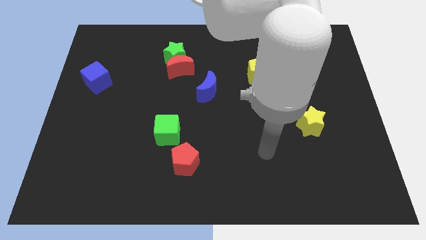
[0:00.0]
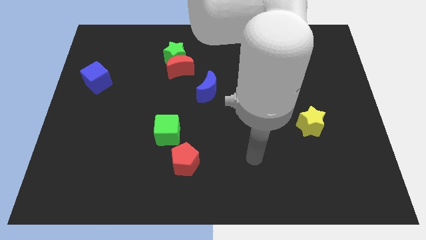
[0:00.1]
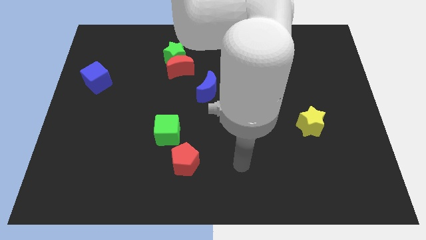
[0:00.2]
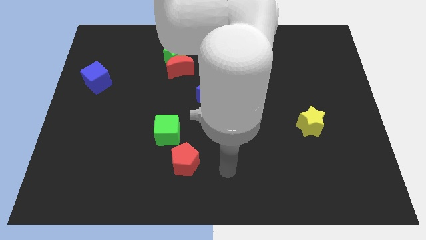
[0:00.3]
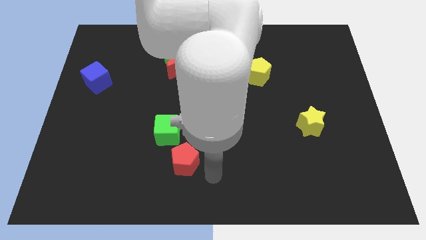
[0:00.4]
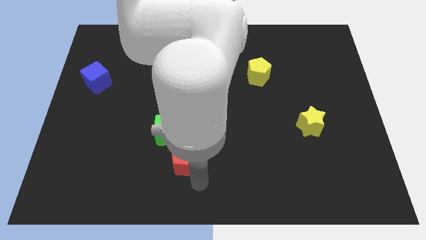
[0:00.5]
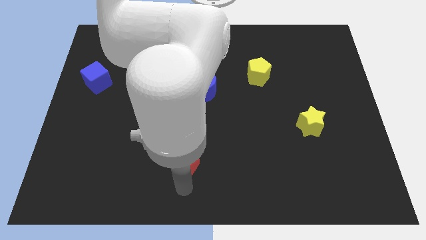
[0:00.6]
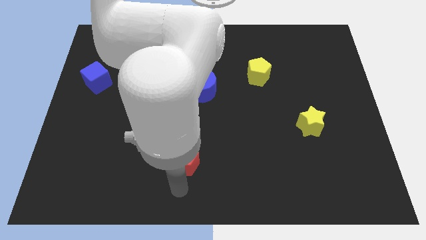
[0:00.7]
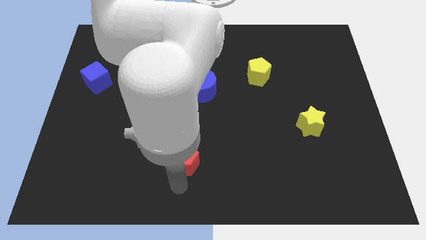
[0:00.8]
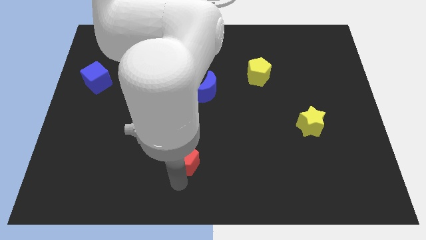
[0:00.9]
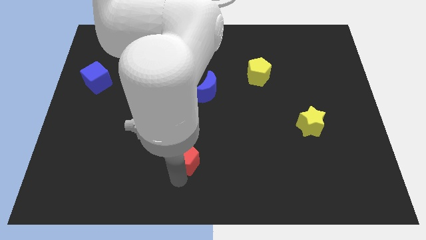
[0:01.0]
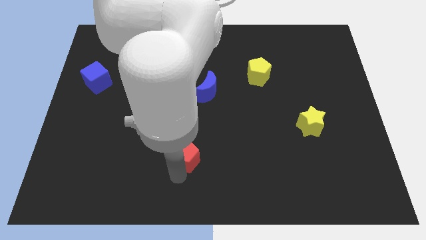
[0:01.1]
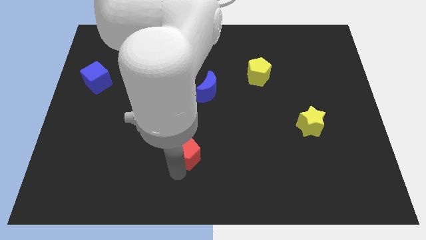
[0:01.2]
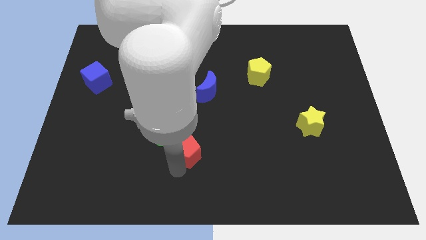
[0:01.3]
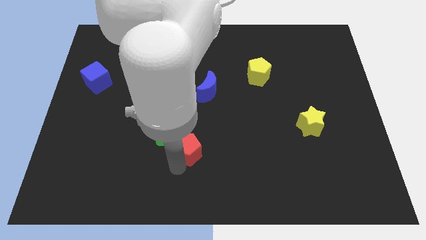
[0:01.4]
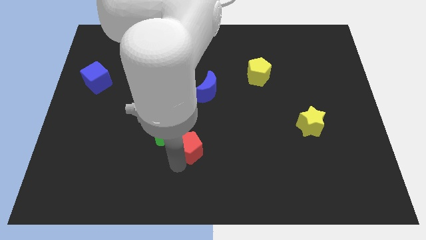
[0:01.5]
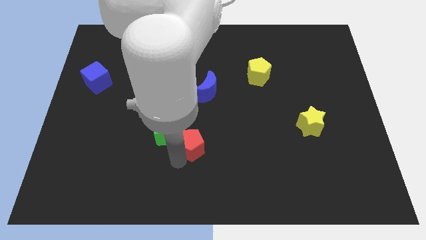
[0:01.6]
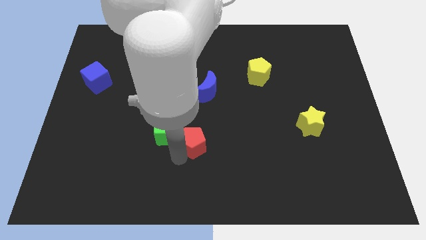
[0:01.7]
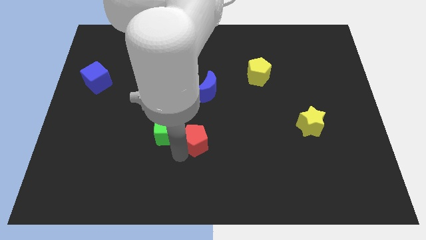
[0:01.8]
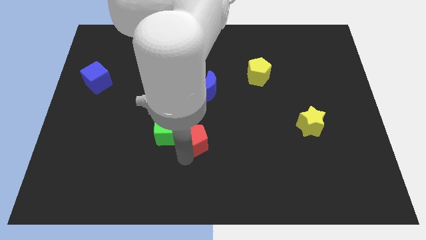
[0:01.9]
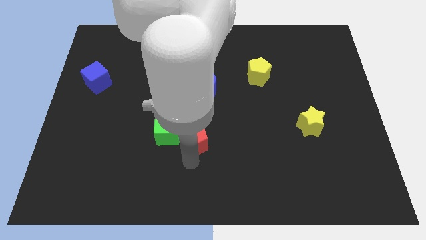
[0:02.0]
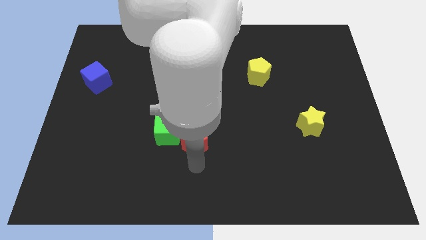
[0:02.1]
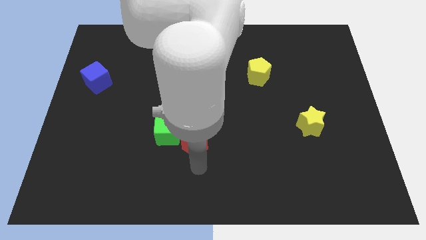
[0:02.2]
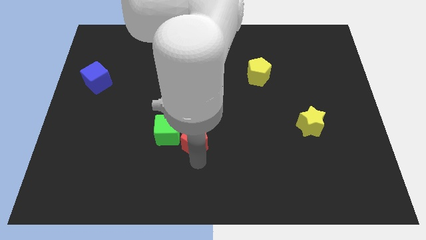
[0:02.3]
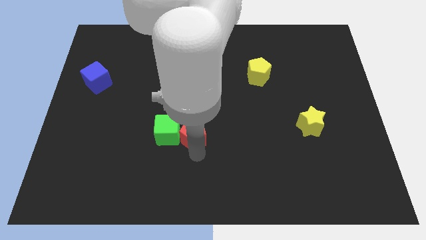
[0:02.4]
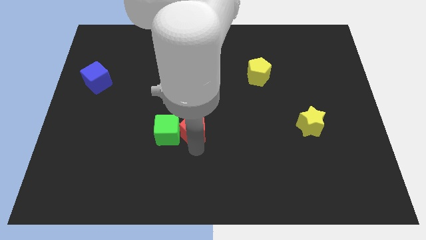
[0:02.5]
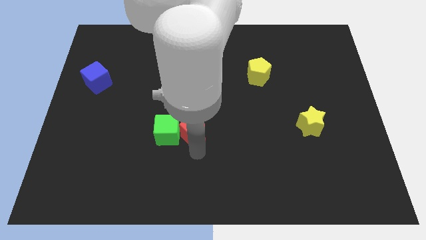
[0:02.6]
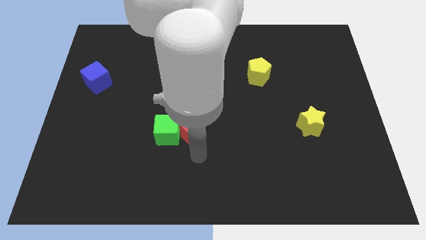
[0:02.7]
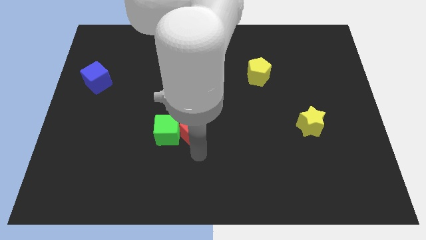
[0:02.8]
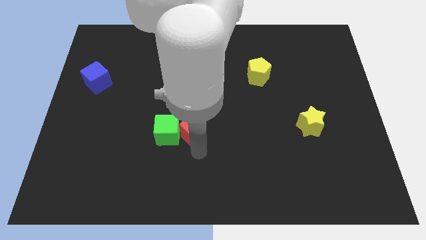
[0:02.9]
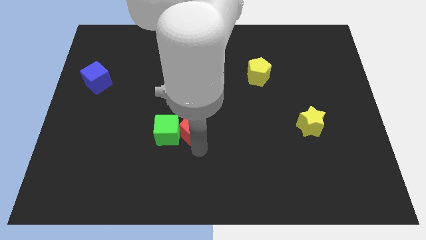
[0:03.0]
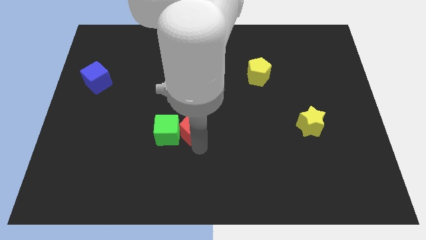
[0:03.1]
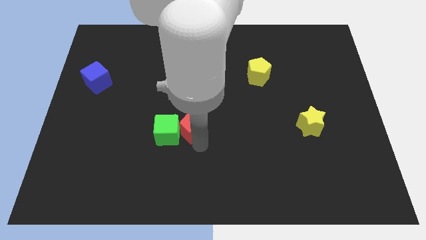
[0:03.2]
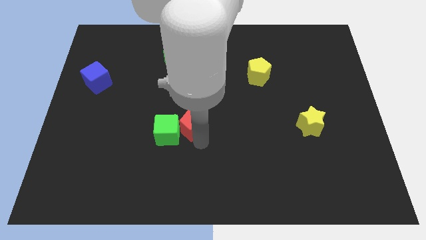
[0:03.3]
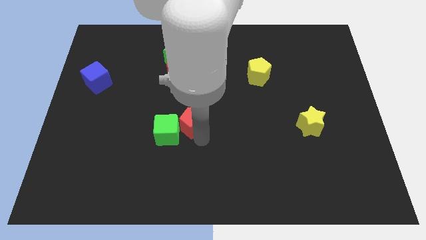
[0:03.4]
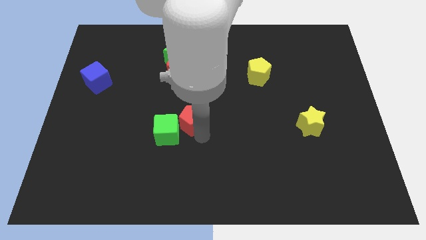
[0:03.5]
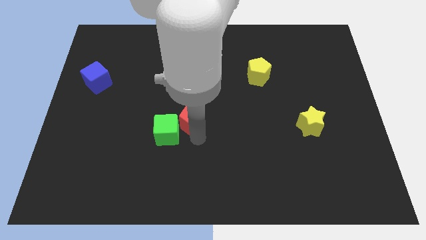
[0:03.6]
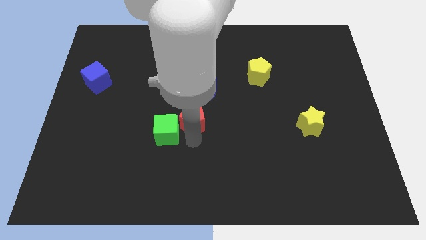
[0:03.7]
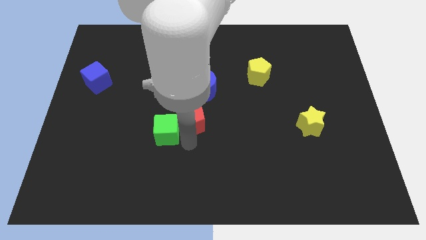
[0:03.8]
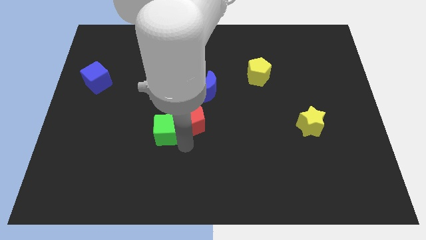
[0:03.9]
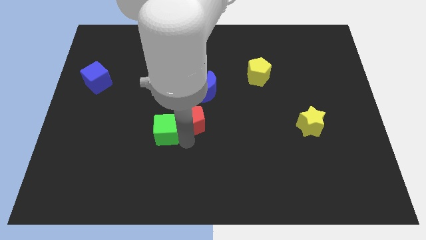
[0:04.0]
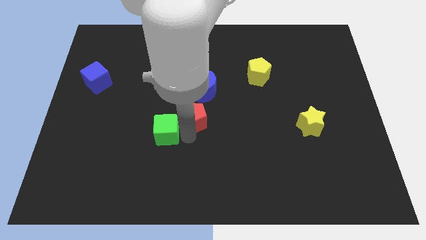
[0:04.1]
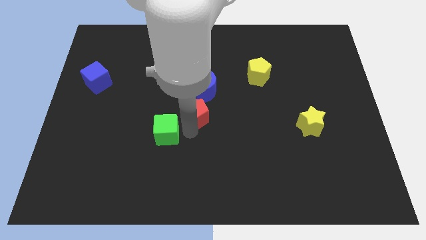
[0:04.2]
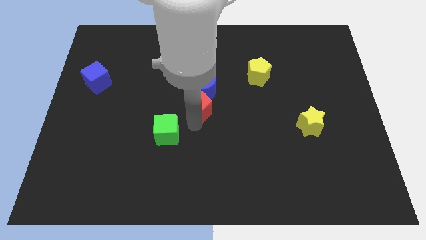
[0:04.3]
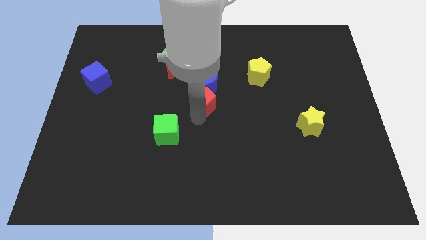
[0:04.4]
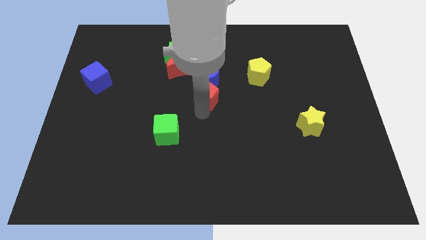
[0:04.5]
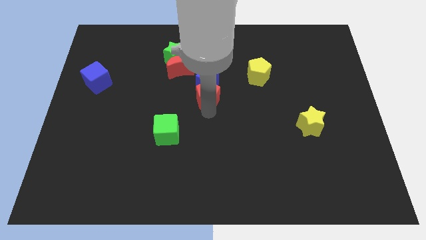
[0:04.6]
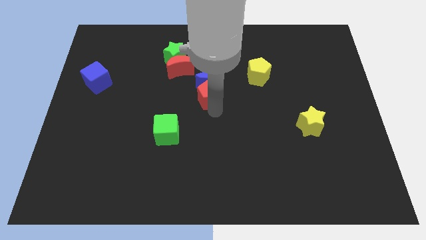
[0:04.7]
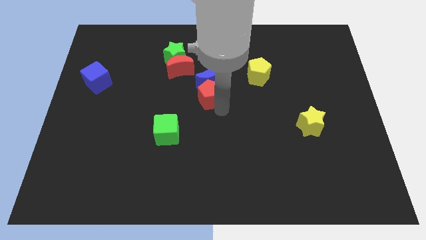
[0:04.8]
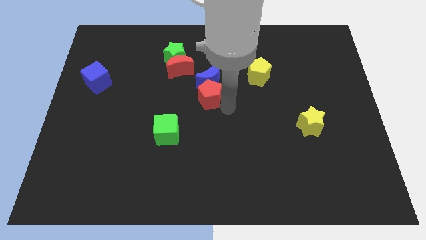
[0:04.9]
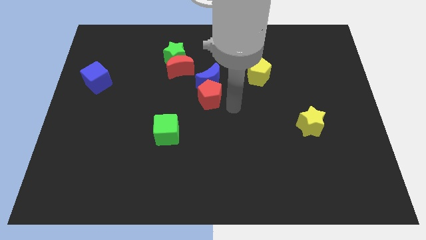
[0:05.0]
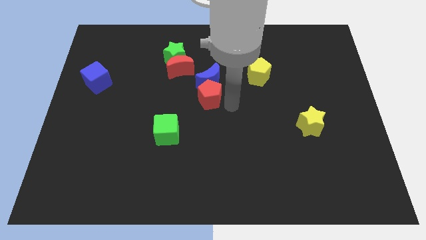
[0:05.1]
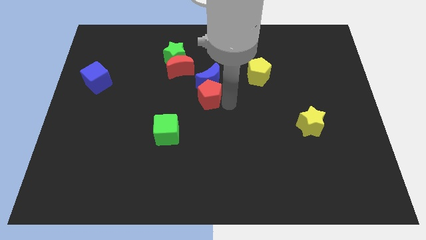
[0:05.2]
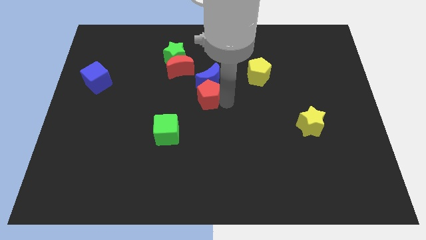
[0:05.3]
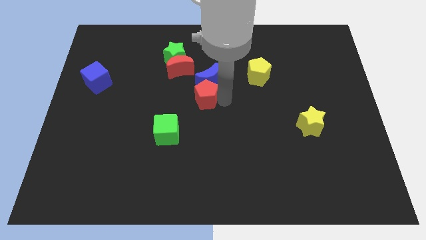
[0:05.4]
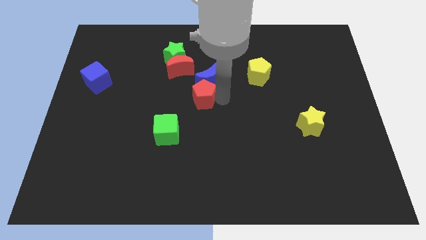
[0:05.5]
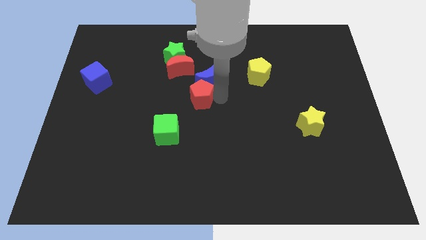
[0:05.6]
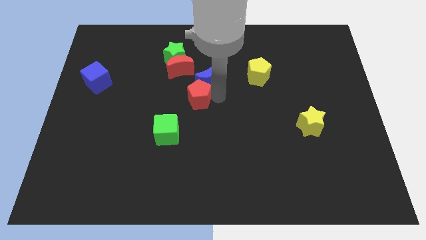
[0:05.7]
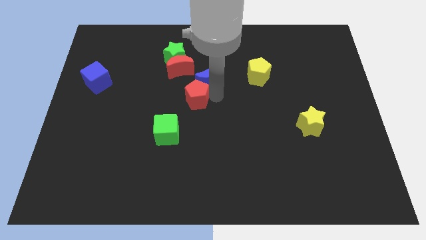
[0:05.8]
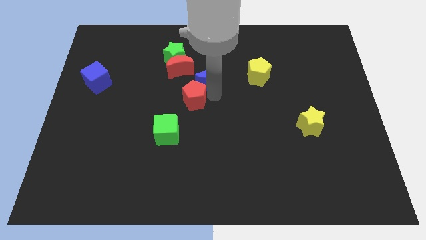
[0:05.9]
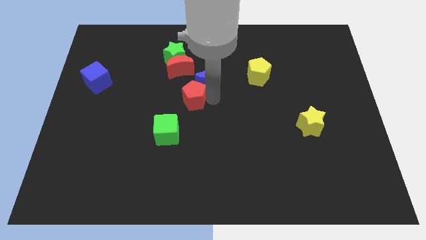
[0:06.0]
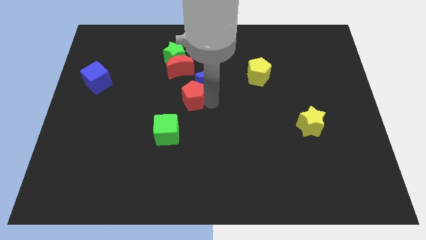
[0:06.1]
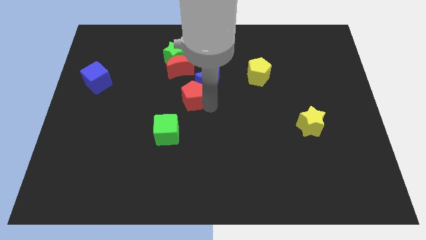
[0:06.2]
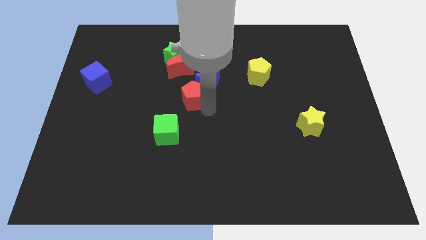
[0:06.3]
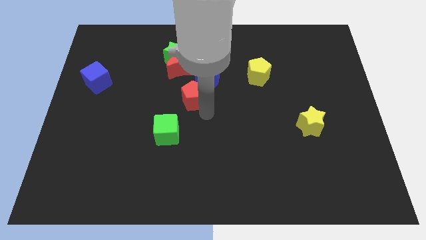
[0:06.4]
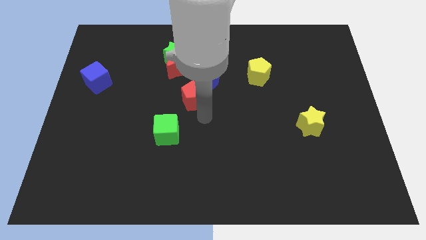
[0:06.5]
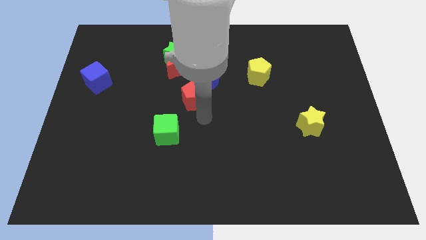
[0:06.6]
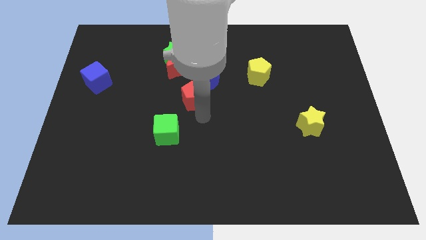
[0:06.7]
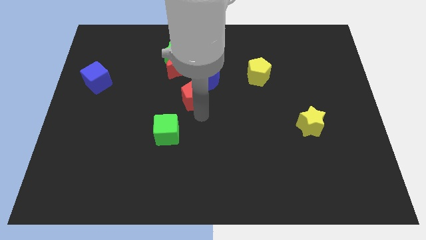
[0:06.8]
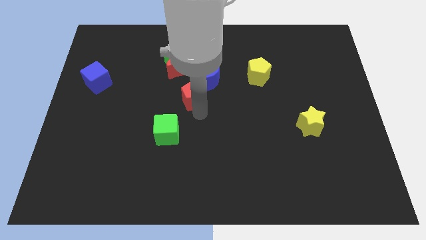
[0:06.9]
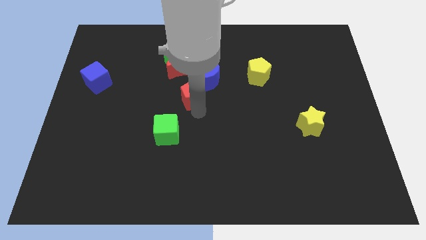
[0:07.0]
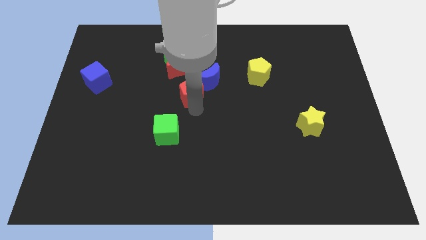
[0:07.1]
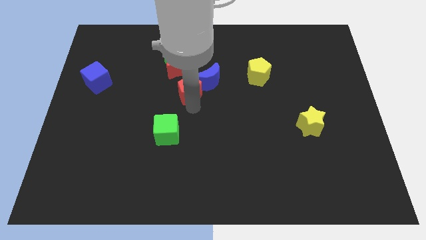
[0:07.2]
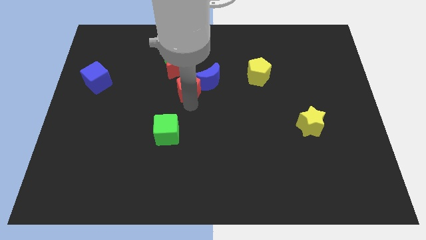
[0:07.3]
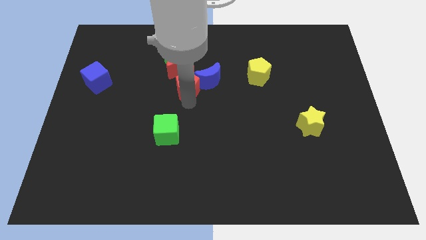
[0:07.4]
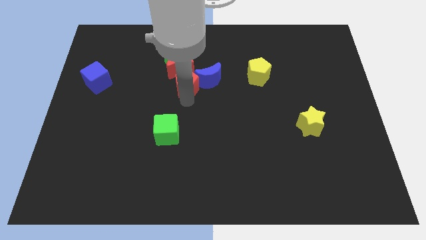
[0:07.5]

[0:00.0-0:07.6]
push the red pentagon to the red moon
